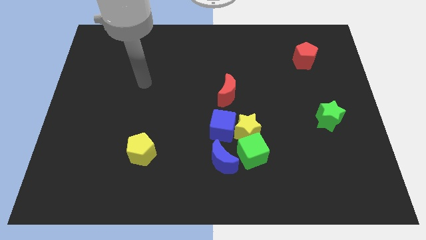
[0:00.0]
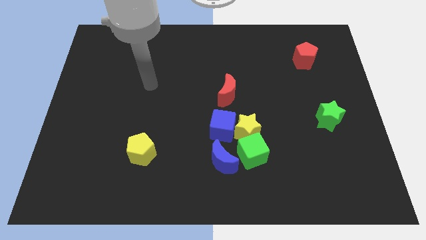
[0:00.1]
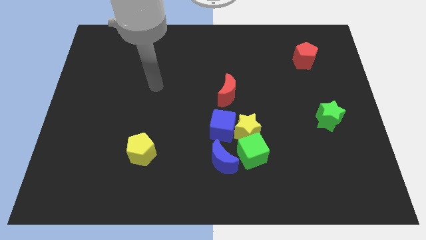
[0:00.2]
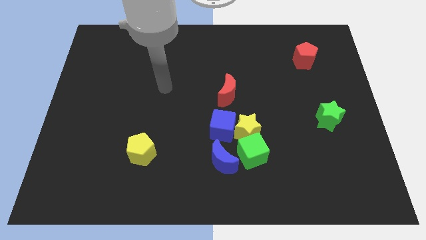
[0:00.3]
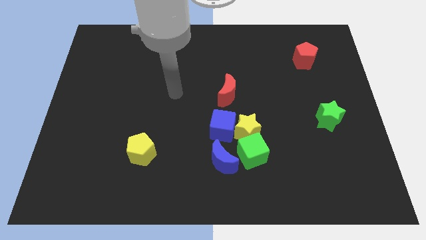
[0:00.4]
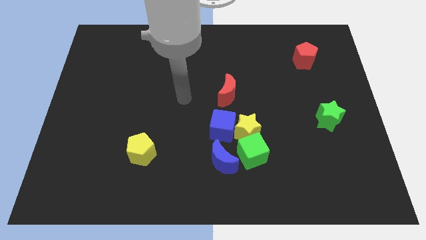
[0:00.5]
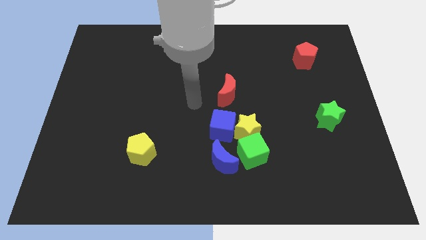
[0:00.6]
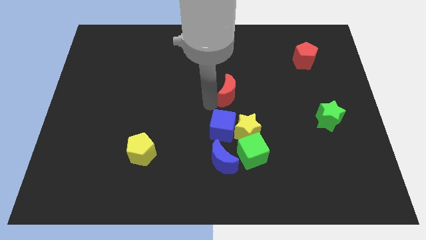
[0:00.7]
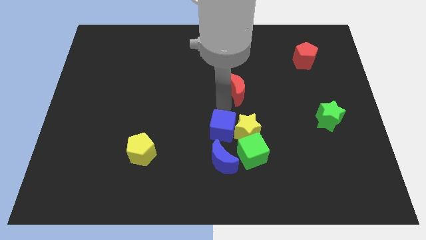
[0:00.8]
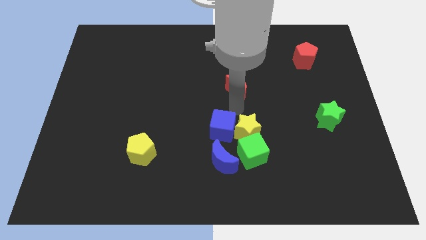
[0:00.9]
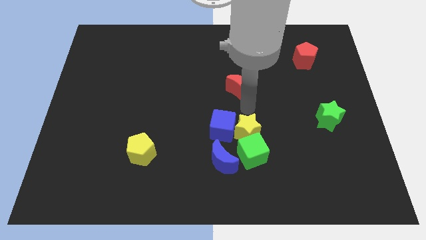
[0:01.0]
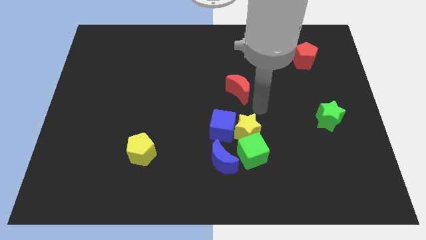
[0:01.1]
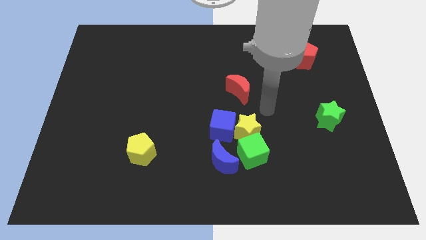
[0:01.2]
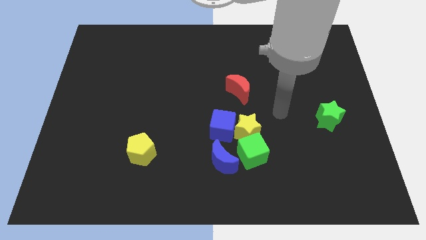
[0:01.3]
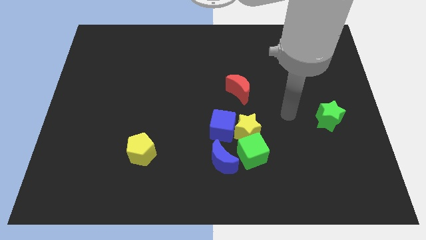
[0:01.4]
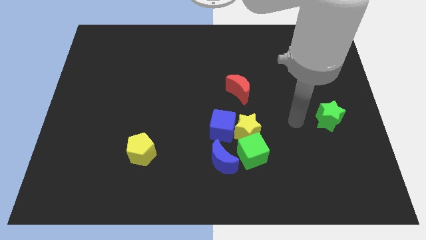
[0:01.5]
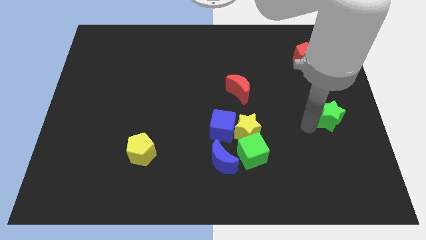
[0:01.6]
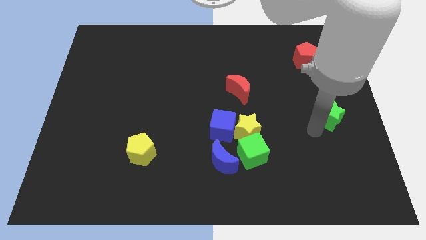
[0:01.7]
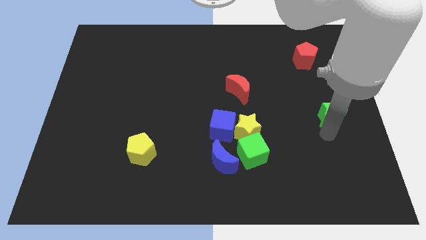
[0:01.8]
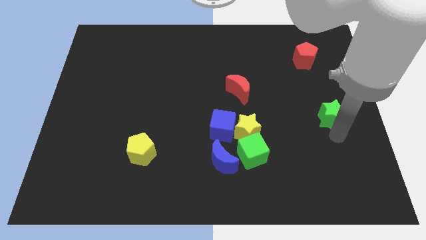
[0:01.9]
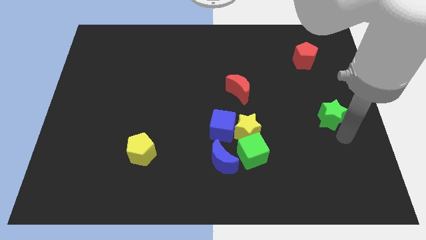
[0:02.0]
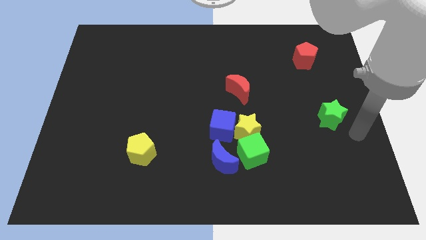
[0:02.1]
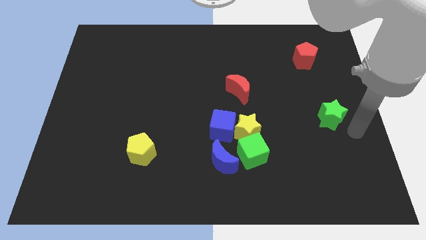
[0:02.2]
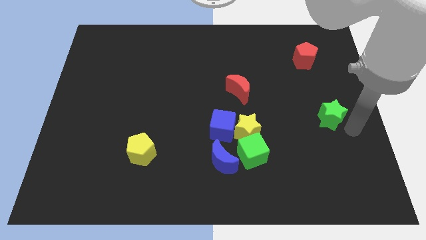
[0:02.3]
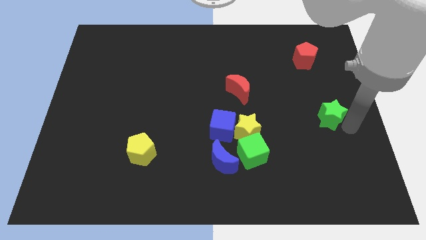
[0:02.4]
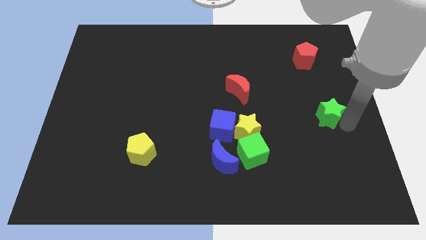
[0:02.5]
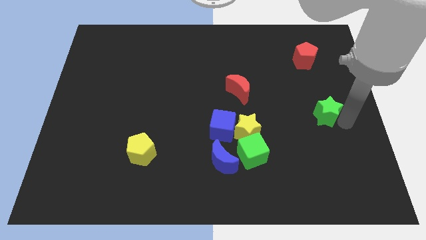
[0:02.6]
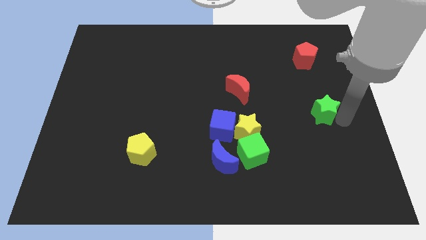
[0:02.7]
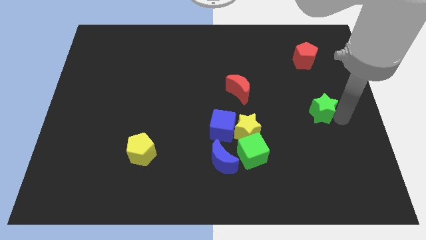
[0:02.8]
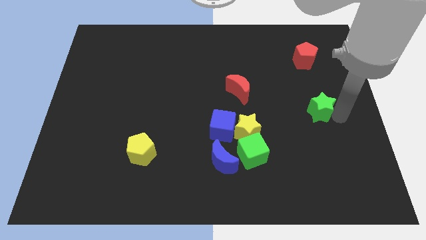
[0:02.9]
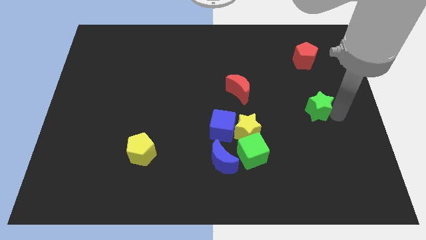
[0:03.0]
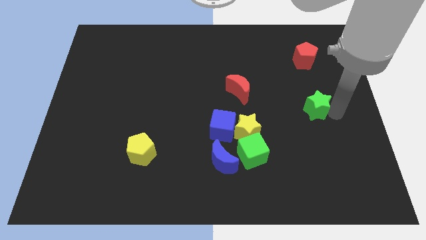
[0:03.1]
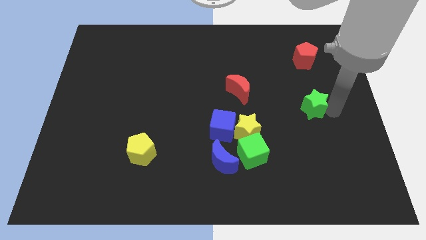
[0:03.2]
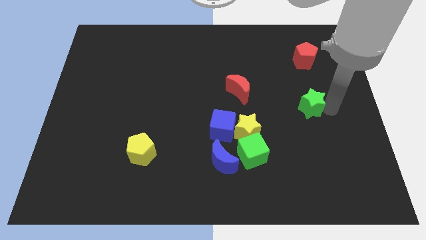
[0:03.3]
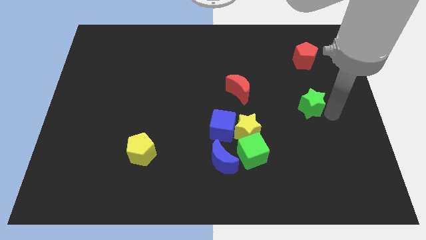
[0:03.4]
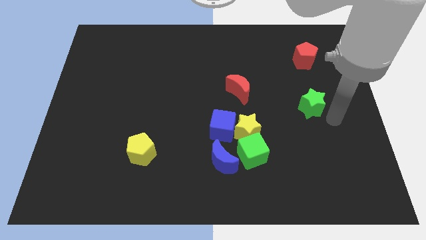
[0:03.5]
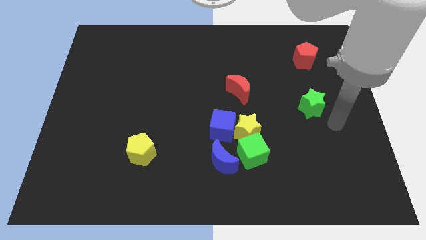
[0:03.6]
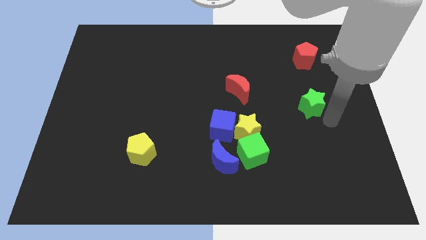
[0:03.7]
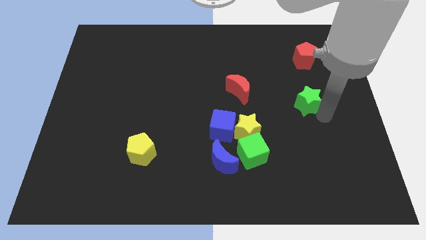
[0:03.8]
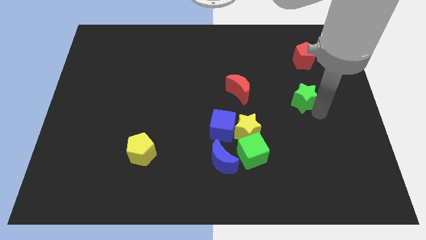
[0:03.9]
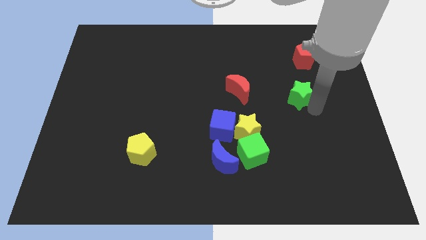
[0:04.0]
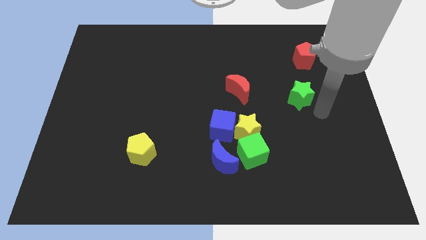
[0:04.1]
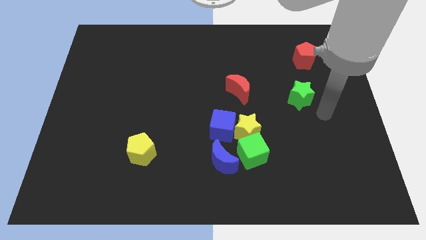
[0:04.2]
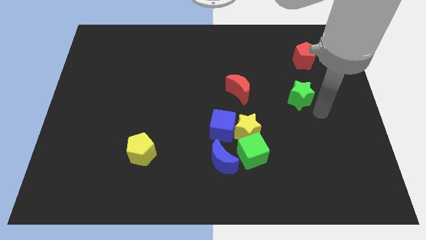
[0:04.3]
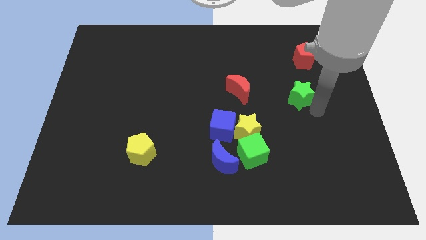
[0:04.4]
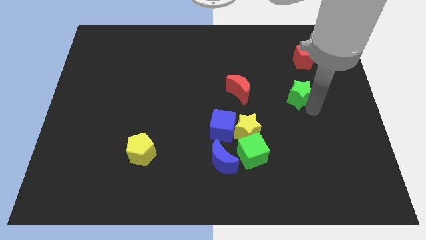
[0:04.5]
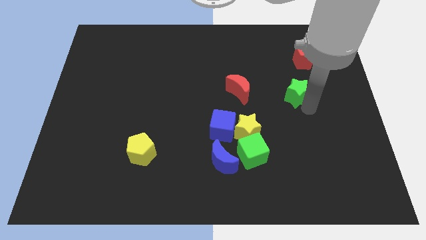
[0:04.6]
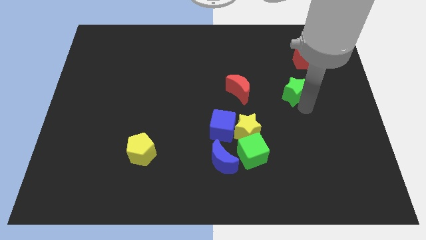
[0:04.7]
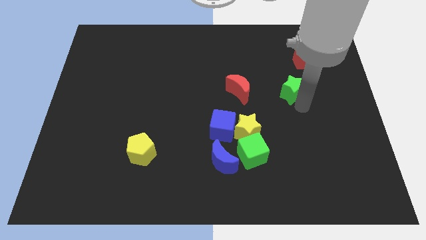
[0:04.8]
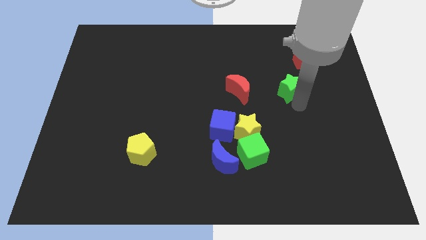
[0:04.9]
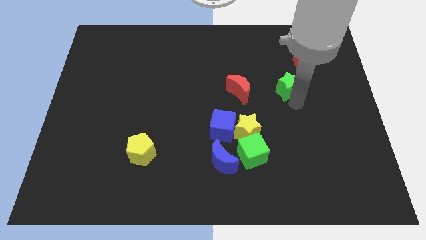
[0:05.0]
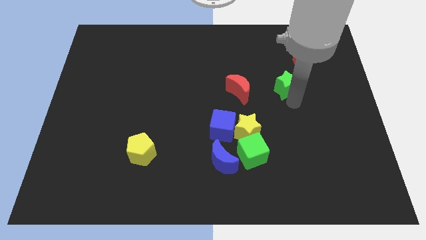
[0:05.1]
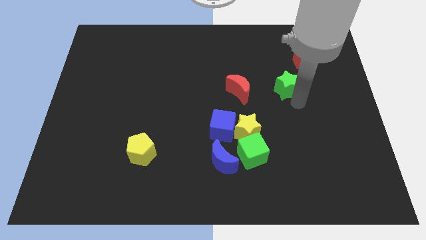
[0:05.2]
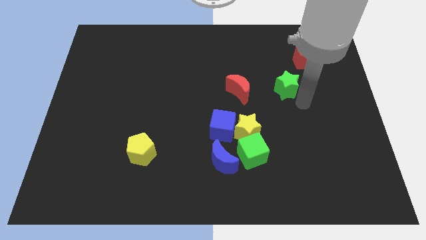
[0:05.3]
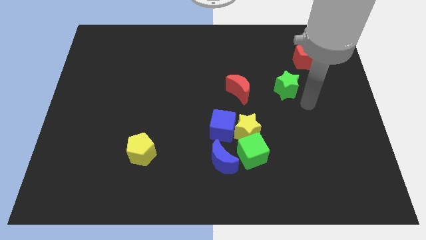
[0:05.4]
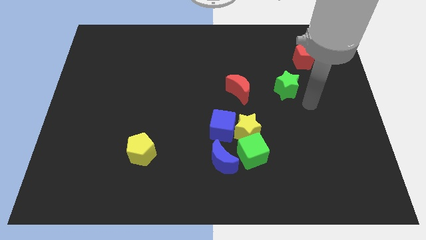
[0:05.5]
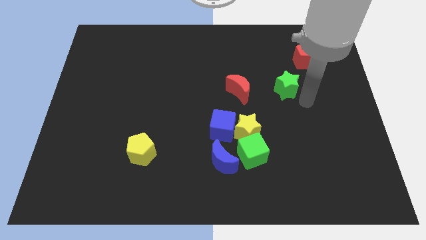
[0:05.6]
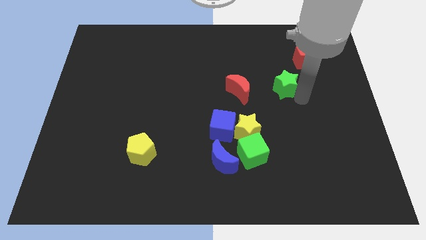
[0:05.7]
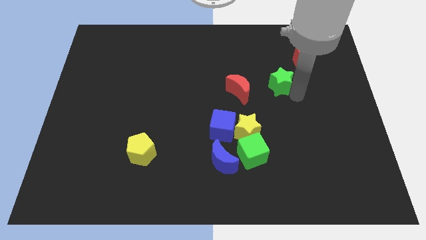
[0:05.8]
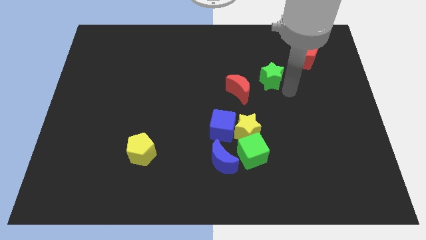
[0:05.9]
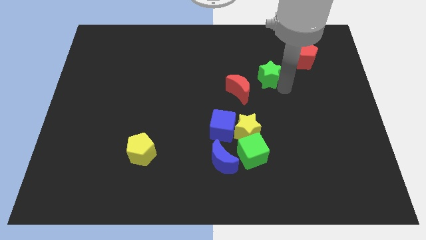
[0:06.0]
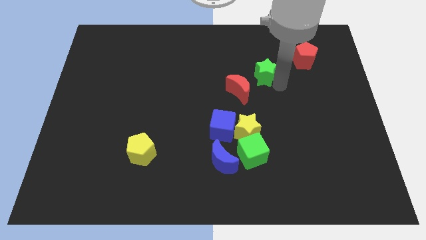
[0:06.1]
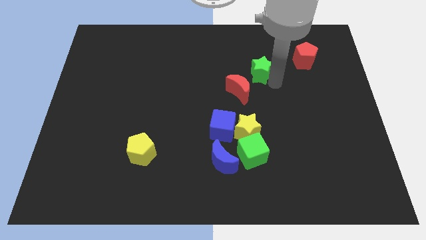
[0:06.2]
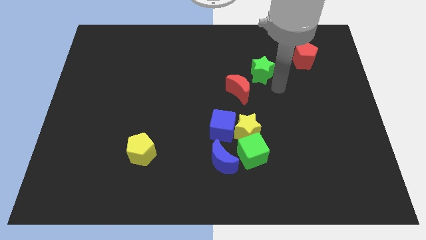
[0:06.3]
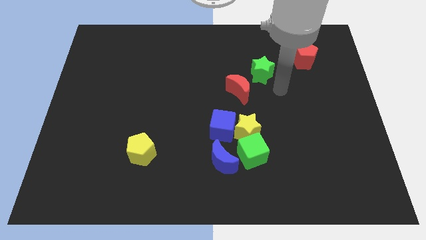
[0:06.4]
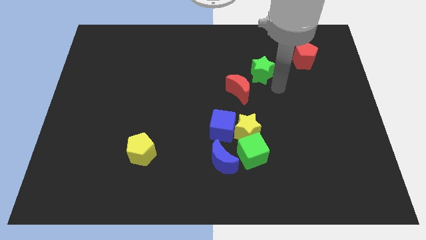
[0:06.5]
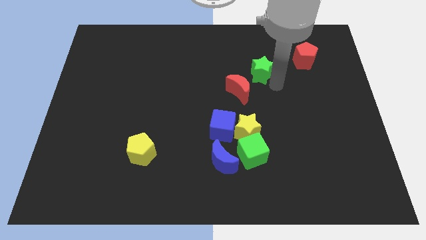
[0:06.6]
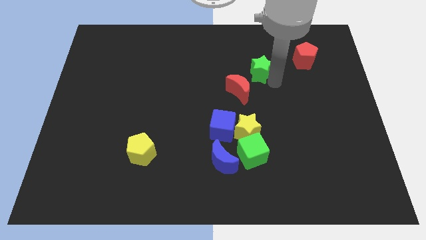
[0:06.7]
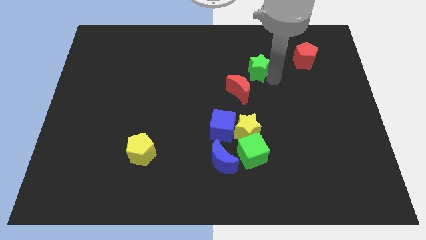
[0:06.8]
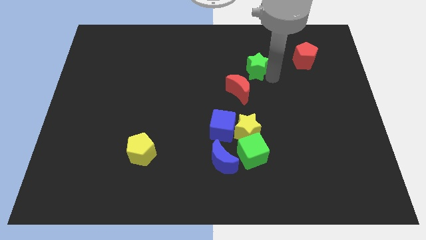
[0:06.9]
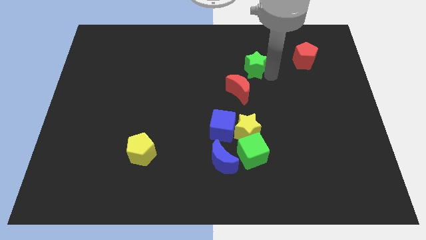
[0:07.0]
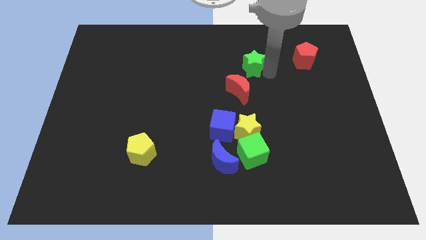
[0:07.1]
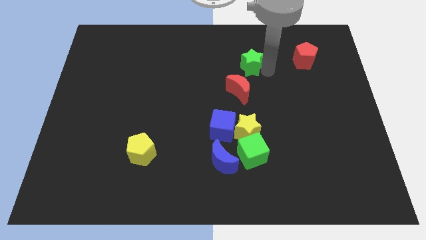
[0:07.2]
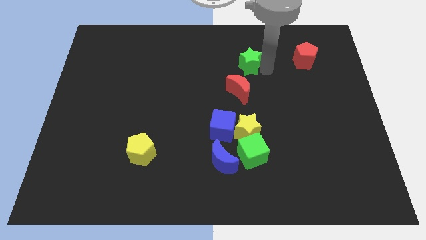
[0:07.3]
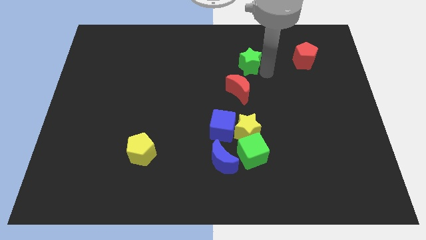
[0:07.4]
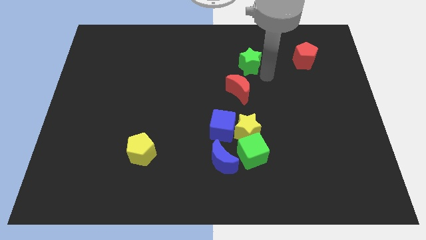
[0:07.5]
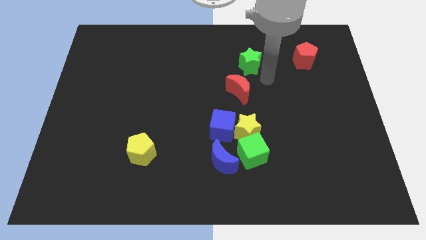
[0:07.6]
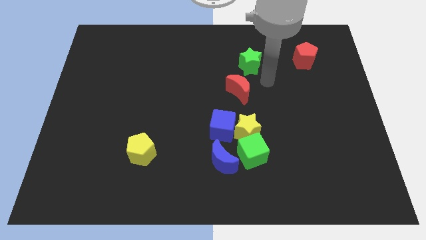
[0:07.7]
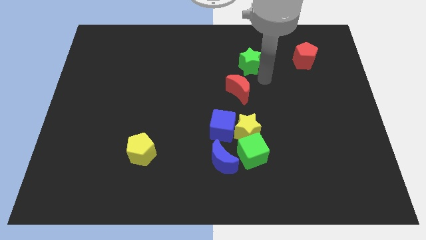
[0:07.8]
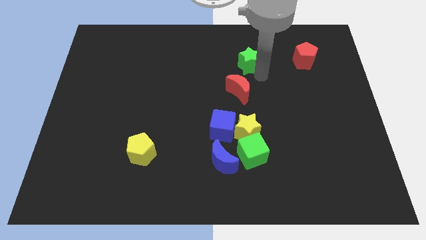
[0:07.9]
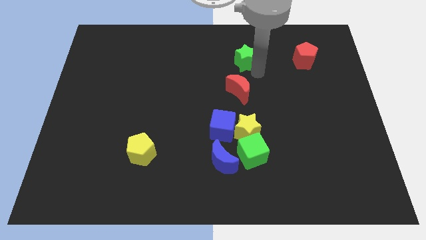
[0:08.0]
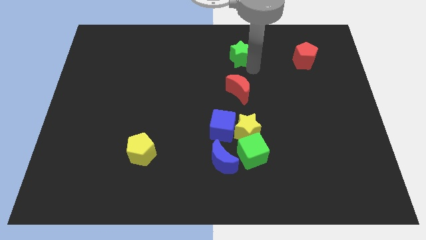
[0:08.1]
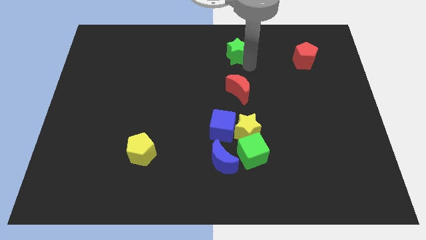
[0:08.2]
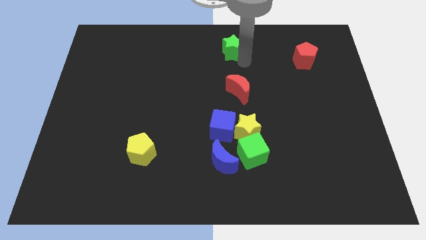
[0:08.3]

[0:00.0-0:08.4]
move the green star to the towards your base
